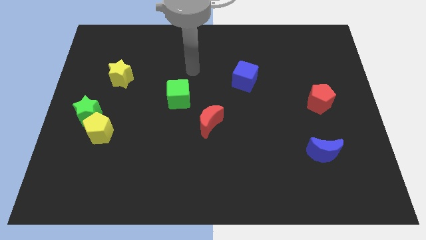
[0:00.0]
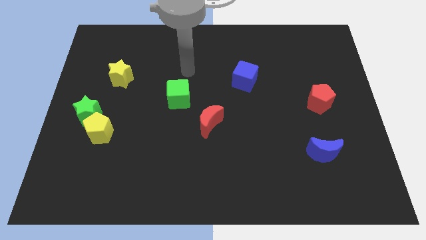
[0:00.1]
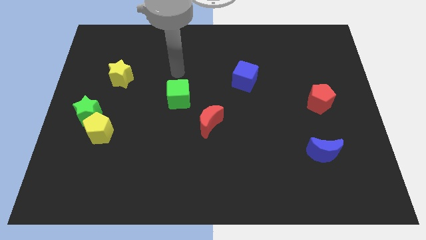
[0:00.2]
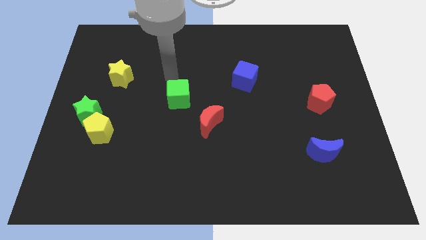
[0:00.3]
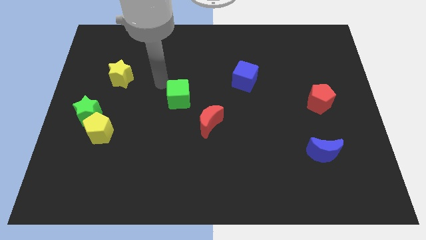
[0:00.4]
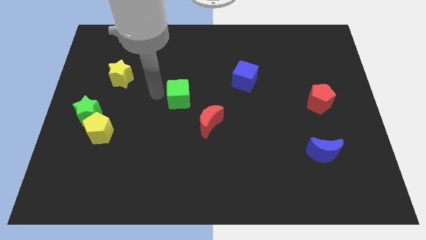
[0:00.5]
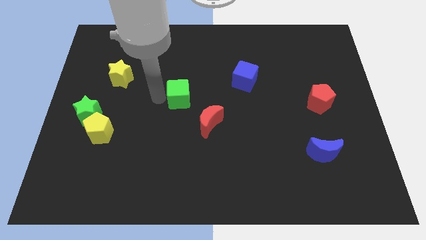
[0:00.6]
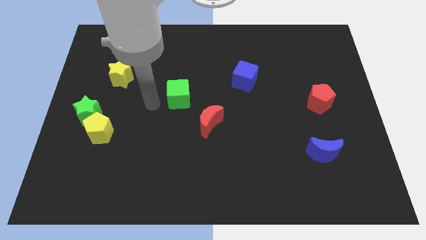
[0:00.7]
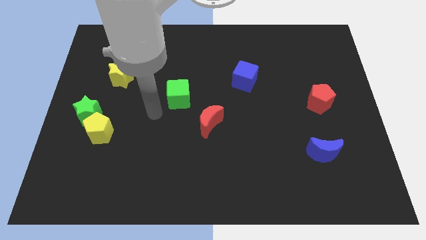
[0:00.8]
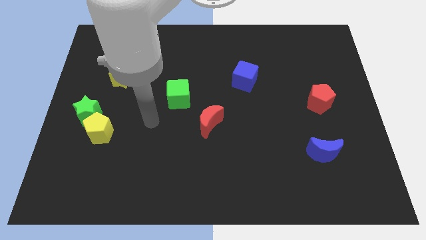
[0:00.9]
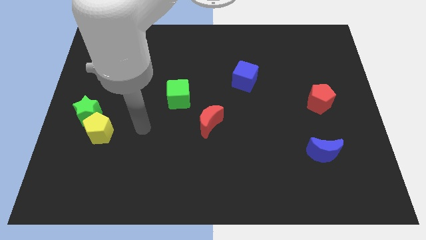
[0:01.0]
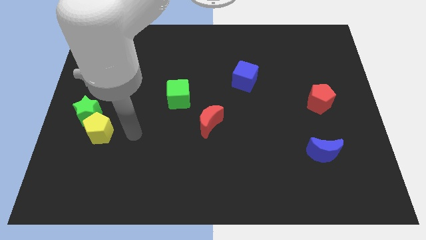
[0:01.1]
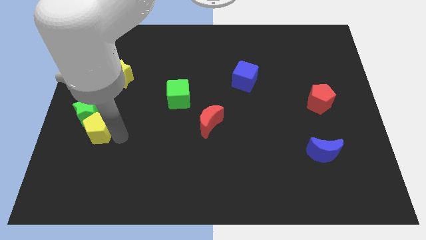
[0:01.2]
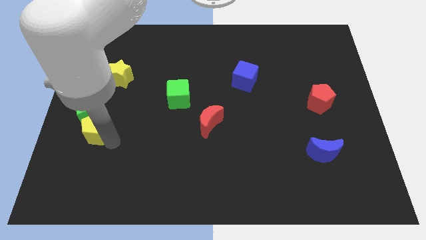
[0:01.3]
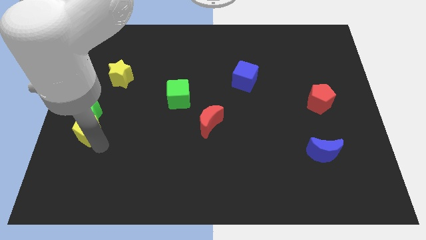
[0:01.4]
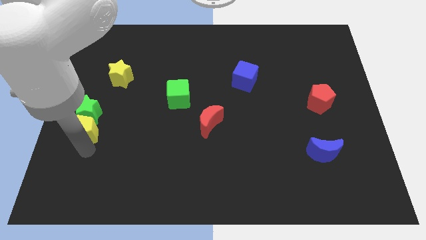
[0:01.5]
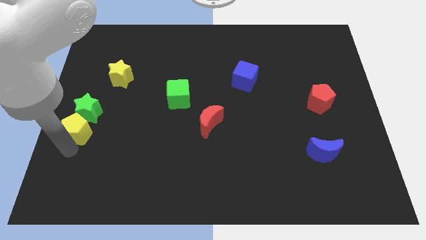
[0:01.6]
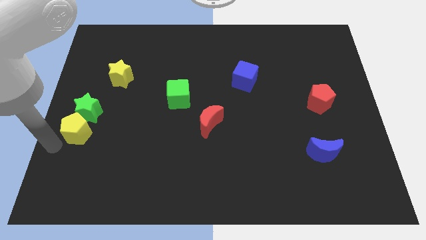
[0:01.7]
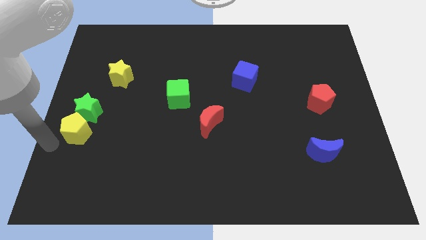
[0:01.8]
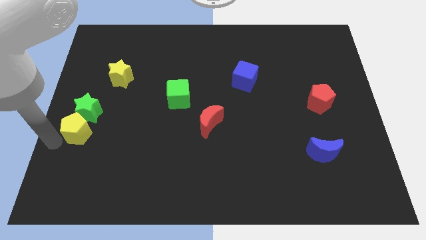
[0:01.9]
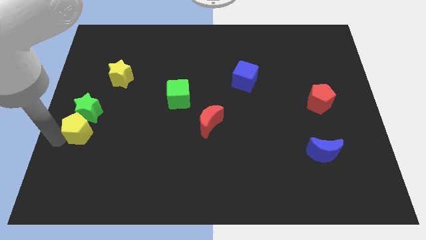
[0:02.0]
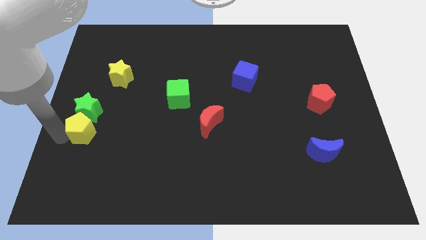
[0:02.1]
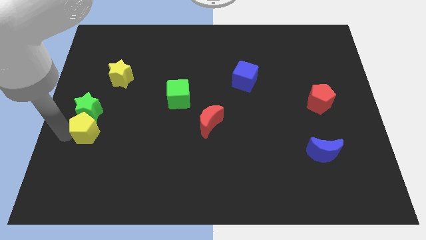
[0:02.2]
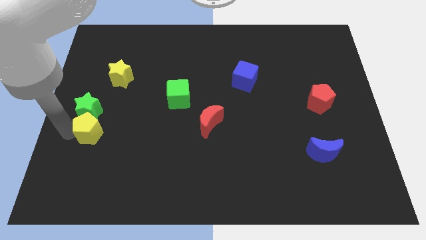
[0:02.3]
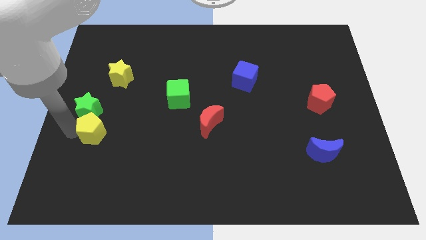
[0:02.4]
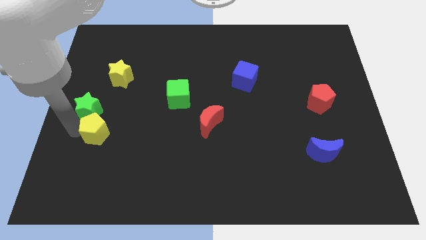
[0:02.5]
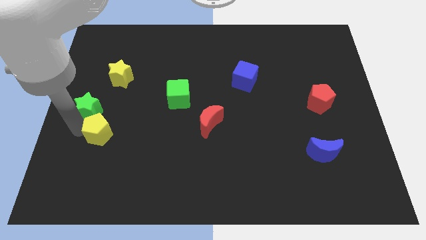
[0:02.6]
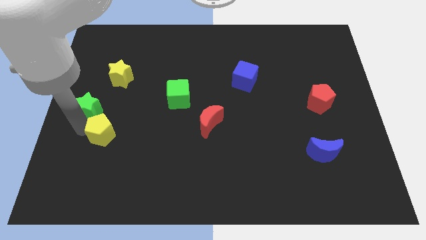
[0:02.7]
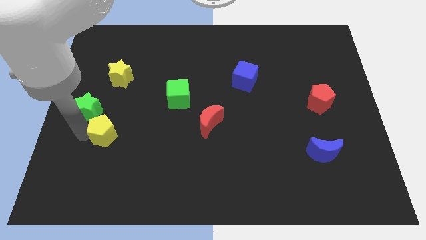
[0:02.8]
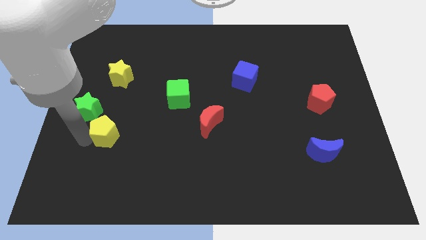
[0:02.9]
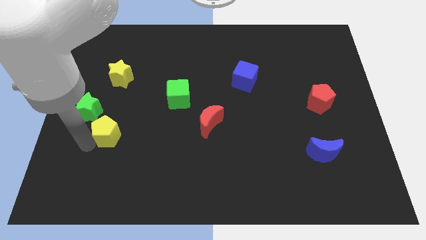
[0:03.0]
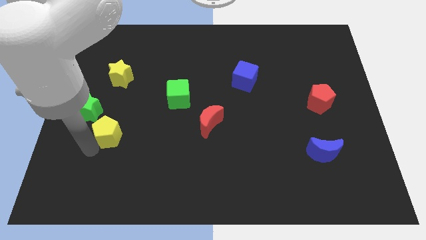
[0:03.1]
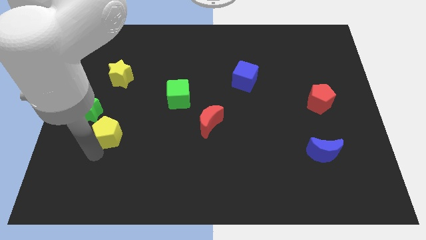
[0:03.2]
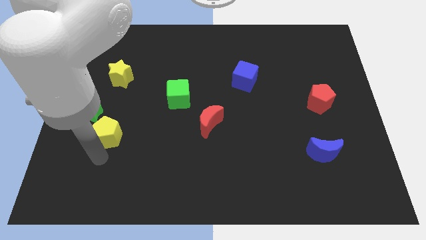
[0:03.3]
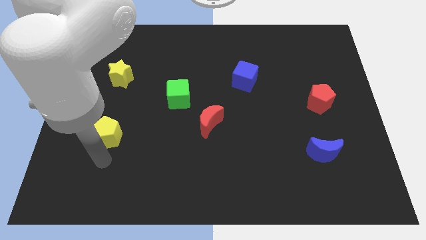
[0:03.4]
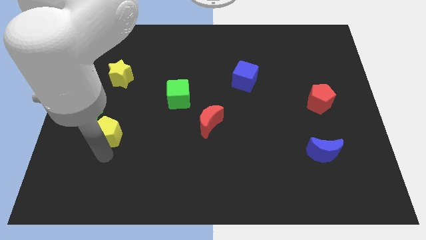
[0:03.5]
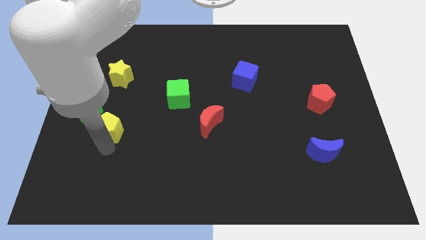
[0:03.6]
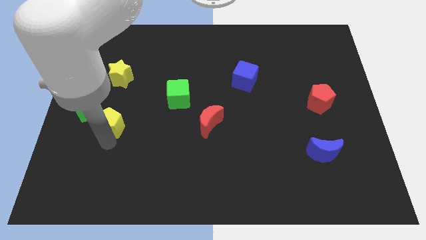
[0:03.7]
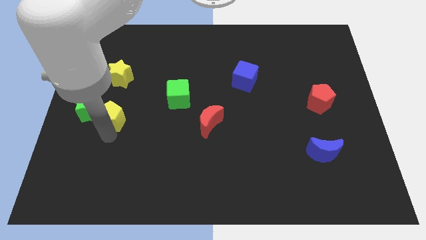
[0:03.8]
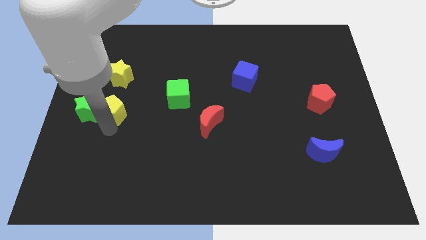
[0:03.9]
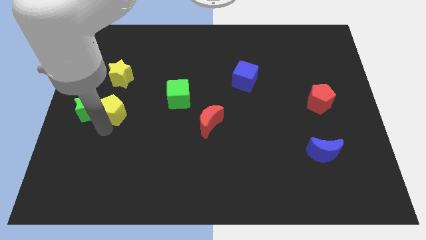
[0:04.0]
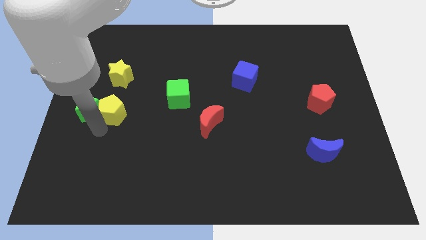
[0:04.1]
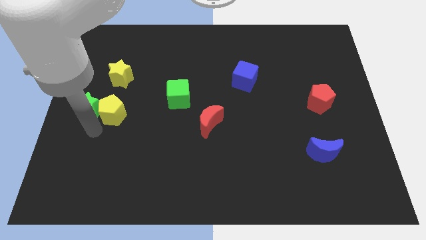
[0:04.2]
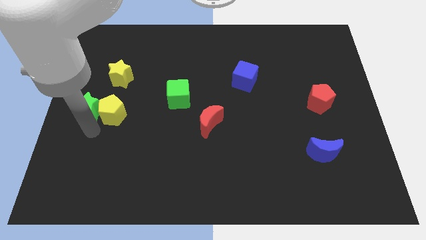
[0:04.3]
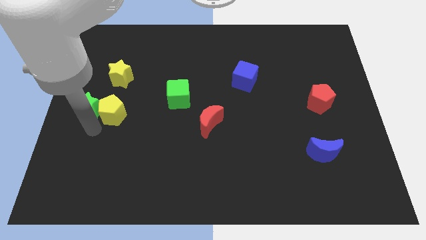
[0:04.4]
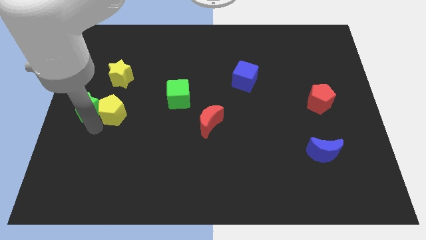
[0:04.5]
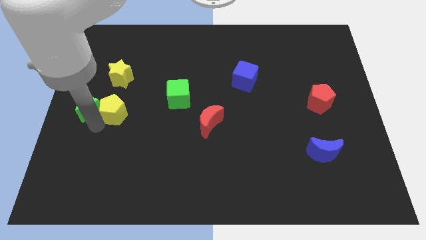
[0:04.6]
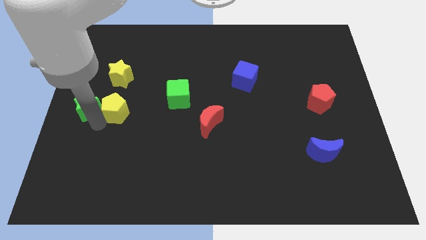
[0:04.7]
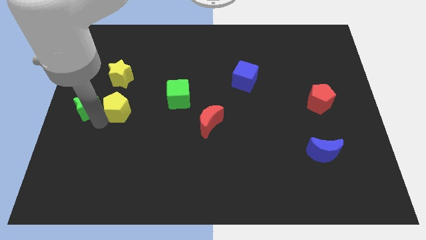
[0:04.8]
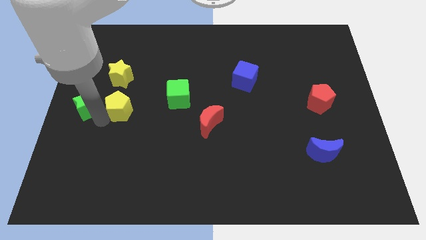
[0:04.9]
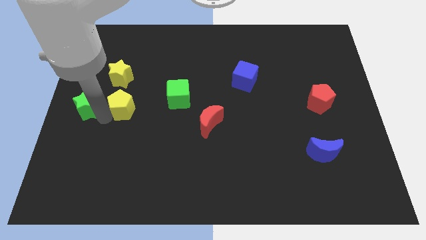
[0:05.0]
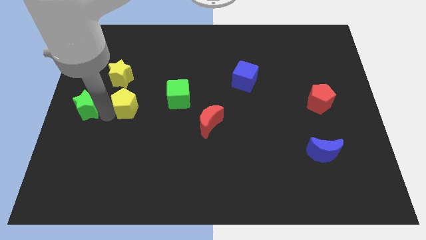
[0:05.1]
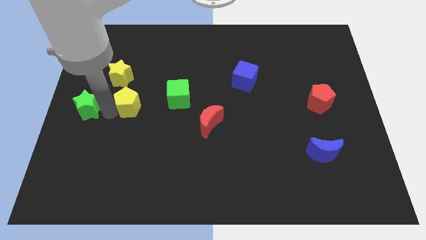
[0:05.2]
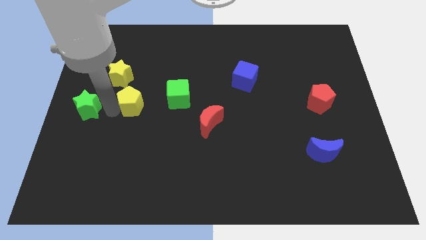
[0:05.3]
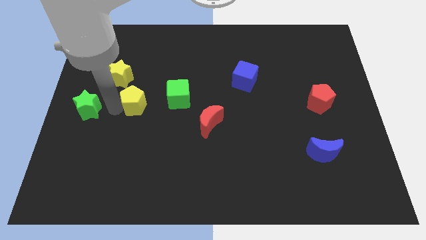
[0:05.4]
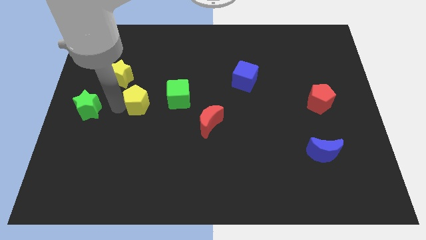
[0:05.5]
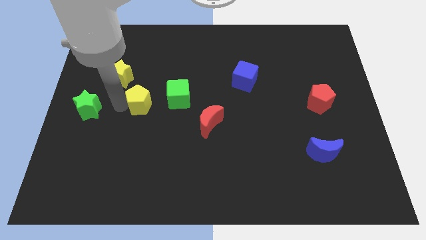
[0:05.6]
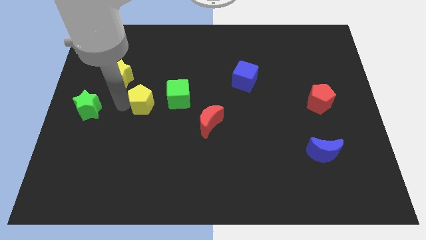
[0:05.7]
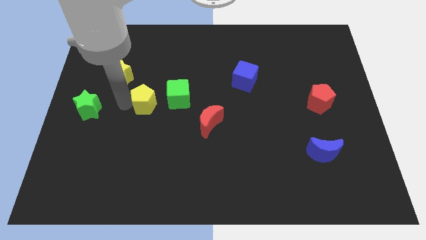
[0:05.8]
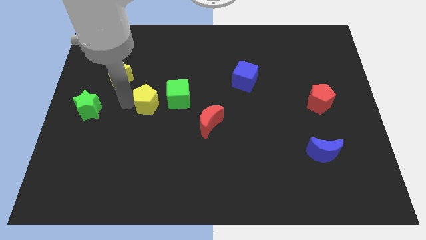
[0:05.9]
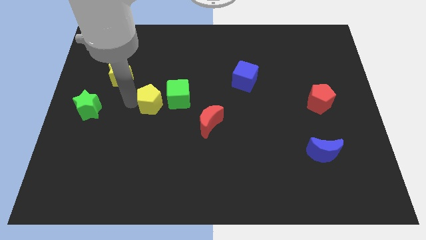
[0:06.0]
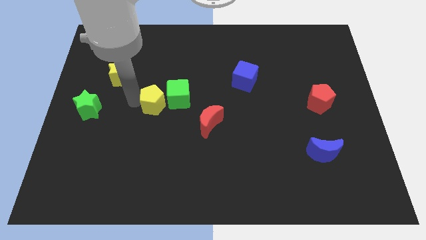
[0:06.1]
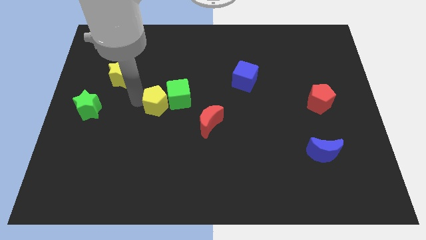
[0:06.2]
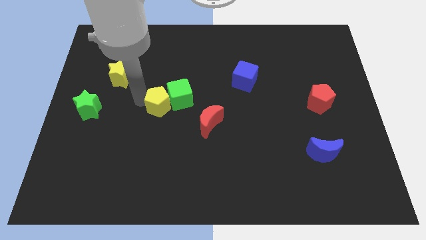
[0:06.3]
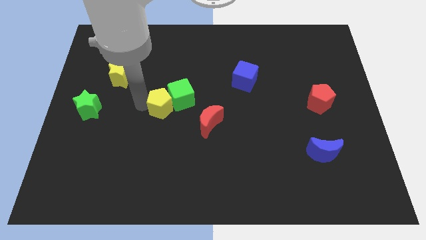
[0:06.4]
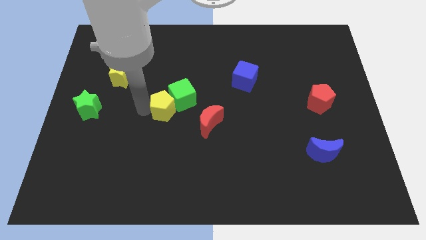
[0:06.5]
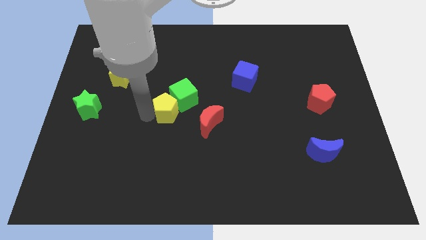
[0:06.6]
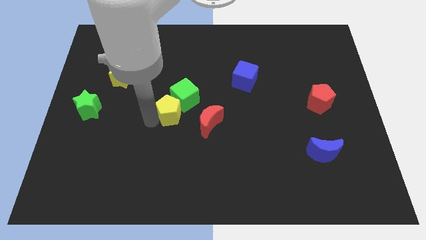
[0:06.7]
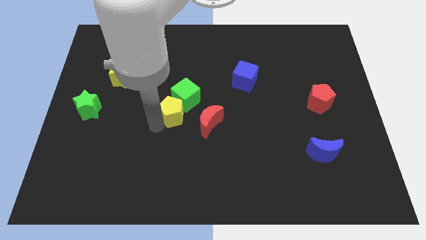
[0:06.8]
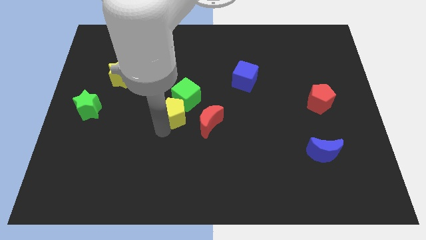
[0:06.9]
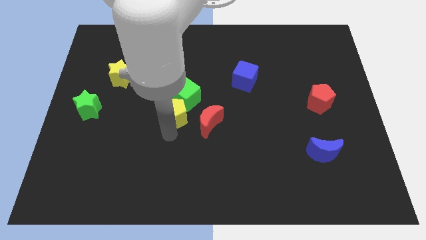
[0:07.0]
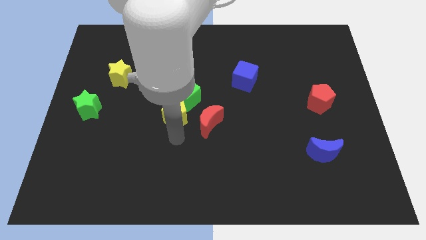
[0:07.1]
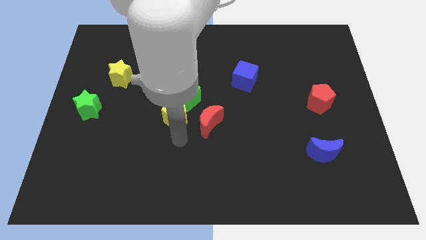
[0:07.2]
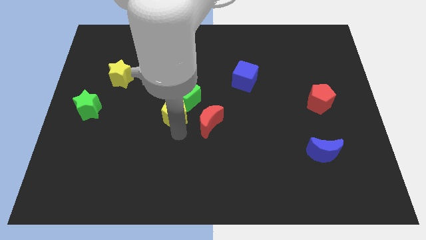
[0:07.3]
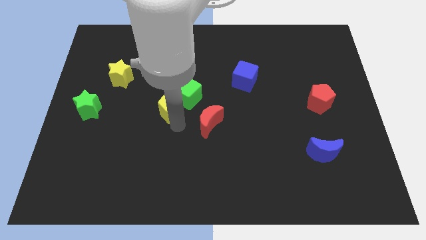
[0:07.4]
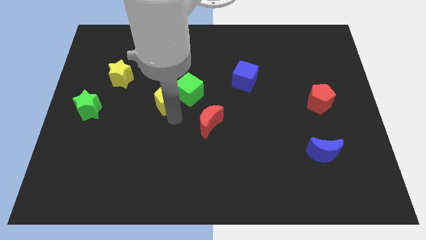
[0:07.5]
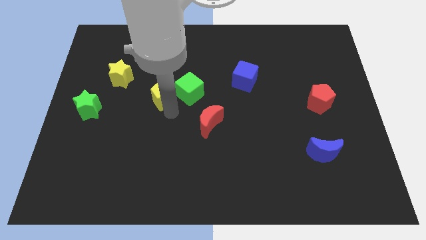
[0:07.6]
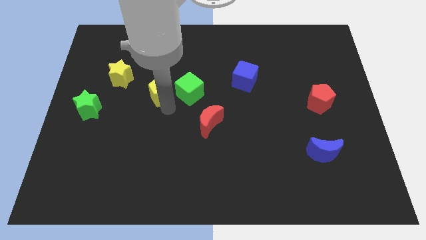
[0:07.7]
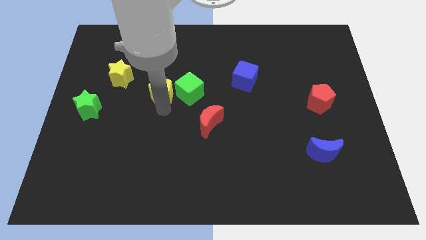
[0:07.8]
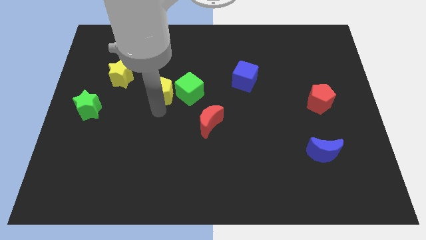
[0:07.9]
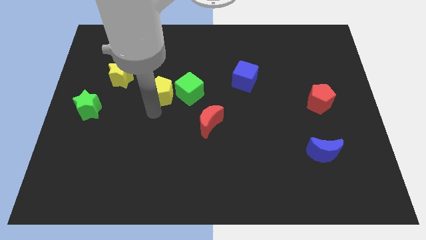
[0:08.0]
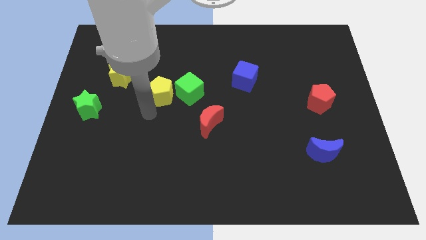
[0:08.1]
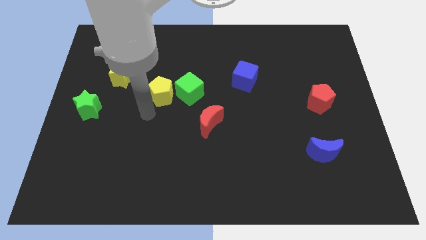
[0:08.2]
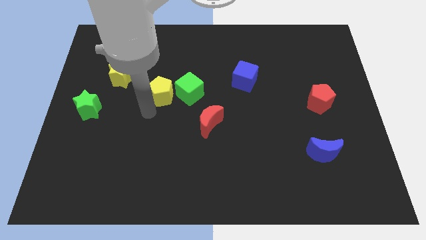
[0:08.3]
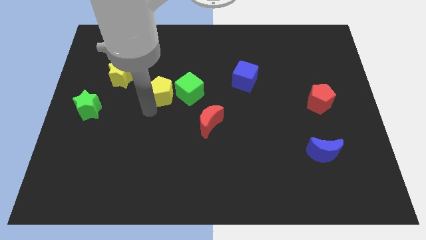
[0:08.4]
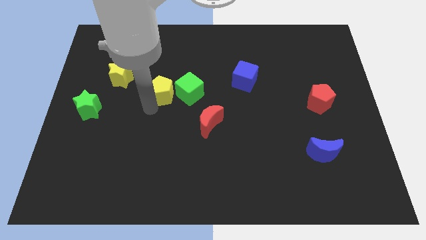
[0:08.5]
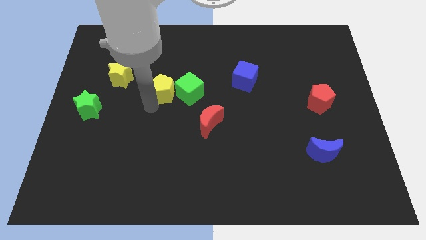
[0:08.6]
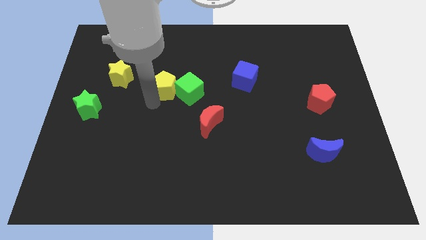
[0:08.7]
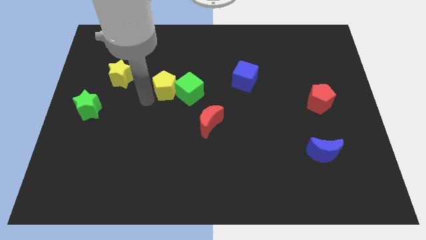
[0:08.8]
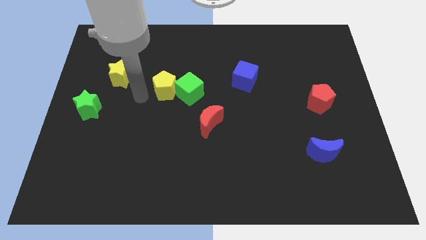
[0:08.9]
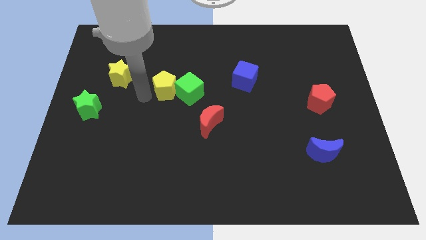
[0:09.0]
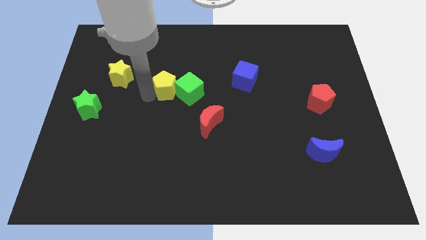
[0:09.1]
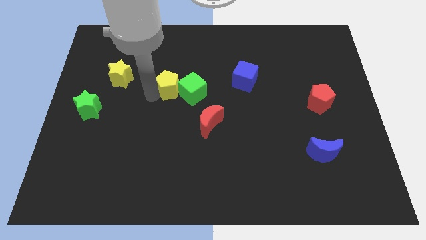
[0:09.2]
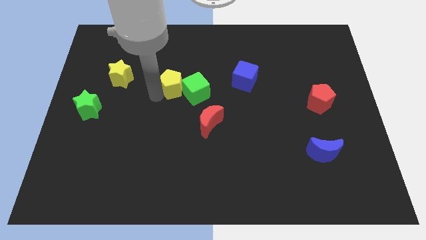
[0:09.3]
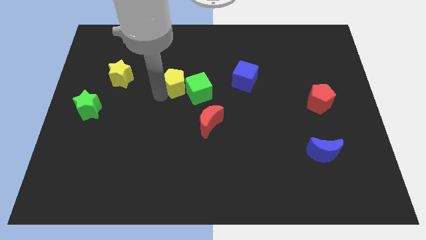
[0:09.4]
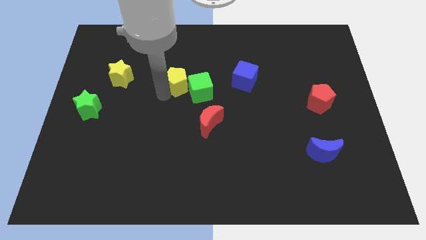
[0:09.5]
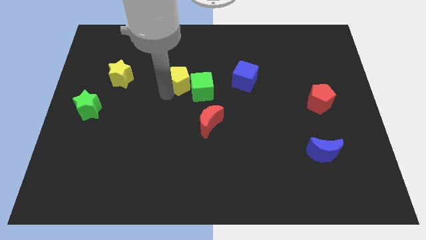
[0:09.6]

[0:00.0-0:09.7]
slide the yellow pentagon to the left of the blue cube
